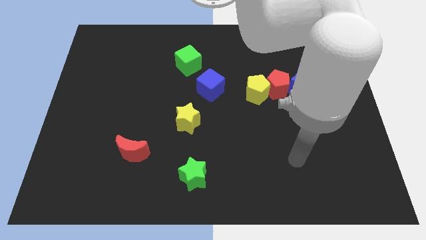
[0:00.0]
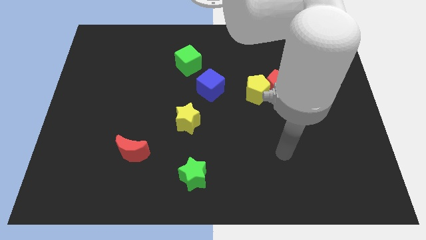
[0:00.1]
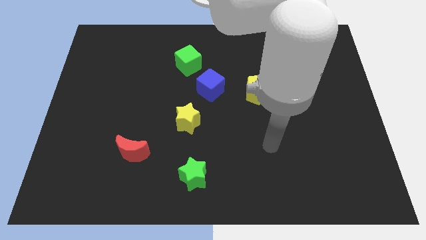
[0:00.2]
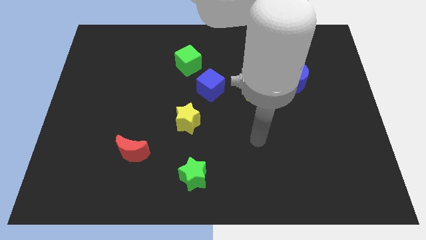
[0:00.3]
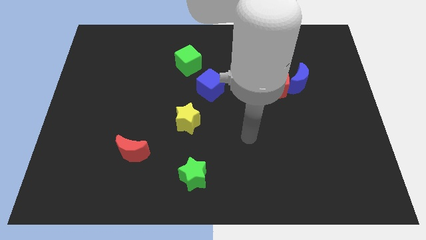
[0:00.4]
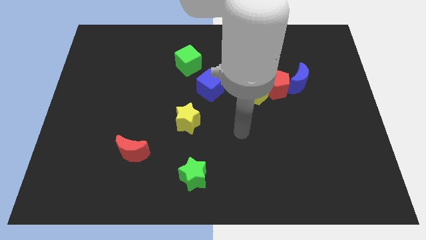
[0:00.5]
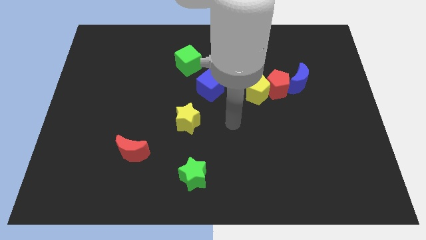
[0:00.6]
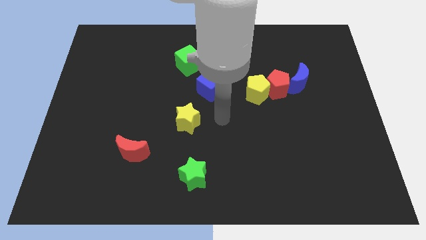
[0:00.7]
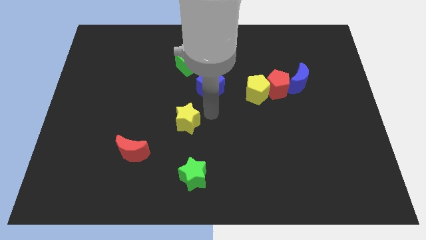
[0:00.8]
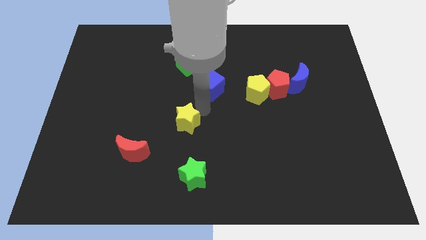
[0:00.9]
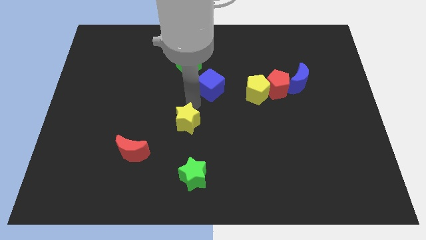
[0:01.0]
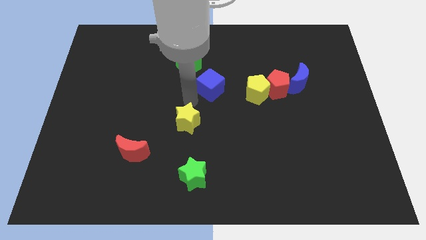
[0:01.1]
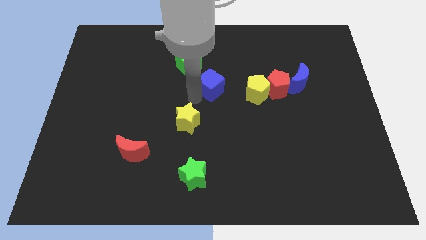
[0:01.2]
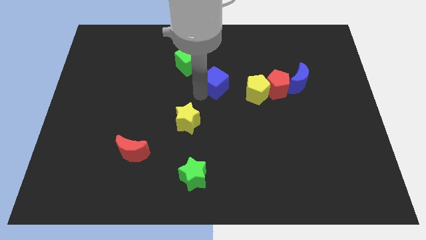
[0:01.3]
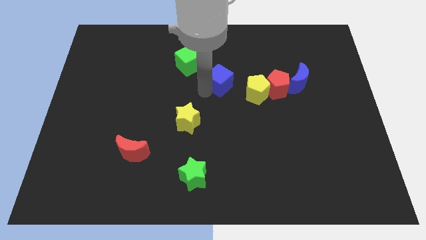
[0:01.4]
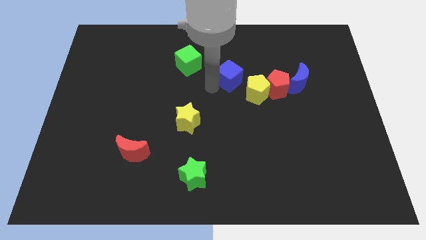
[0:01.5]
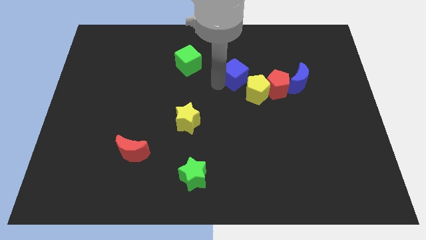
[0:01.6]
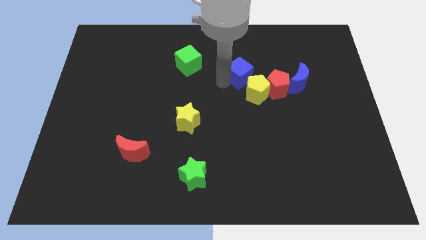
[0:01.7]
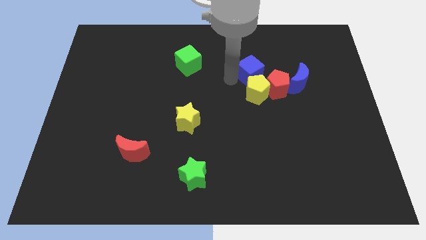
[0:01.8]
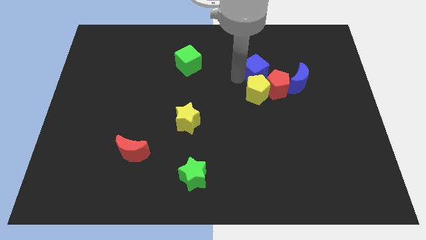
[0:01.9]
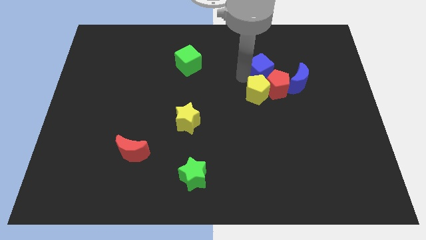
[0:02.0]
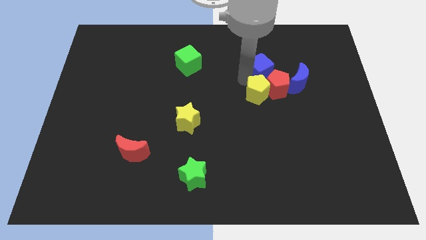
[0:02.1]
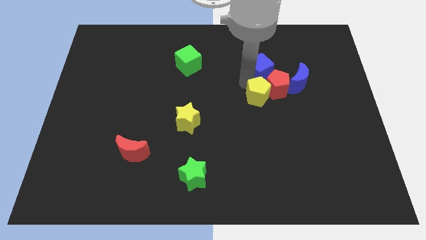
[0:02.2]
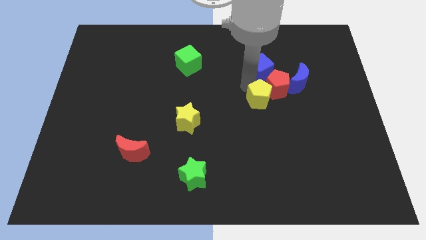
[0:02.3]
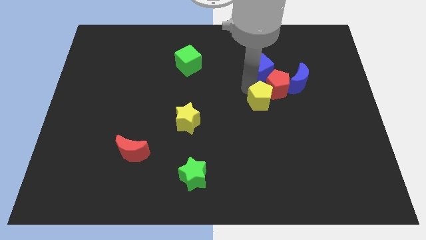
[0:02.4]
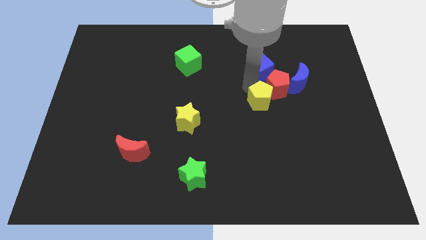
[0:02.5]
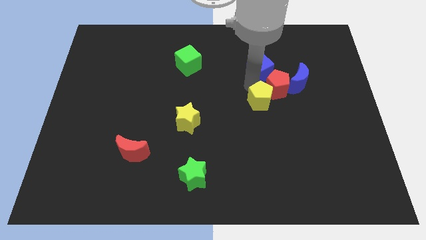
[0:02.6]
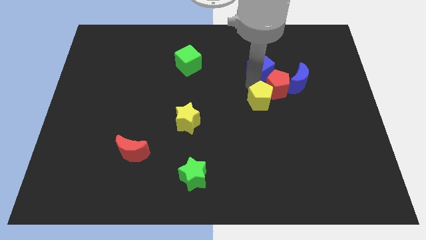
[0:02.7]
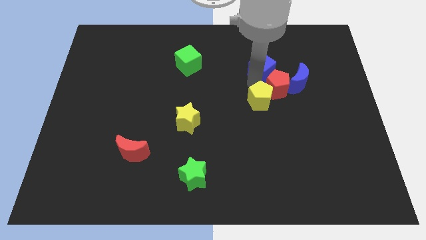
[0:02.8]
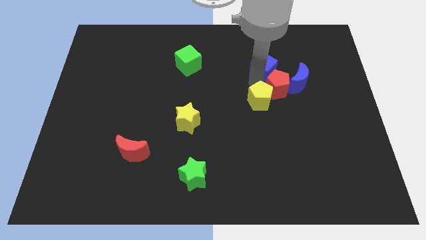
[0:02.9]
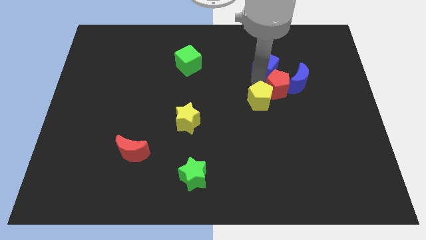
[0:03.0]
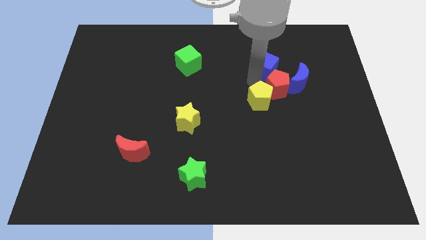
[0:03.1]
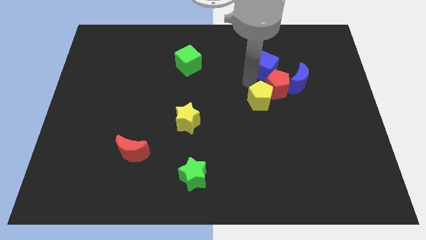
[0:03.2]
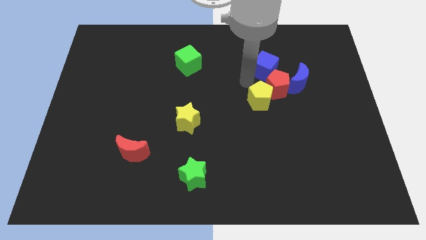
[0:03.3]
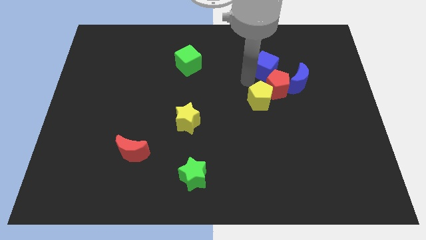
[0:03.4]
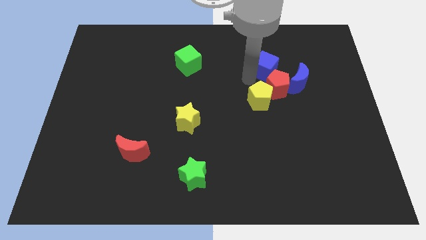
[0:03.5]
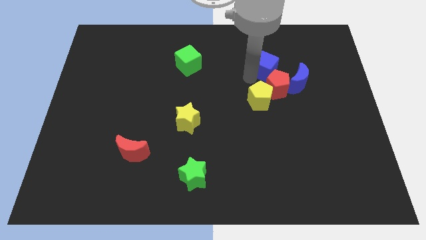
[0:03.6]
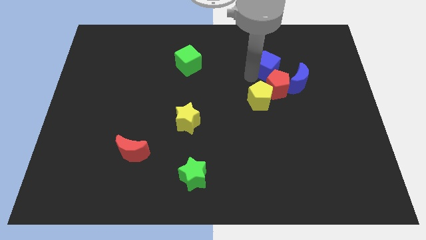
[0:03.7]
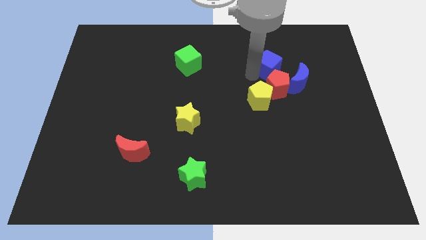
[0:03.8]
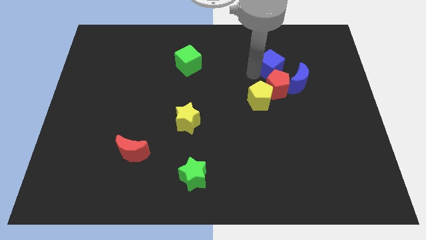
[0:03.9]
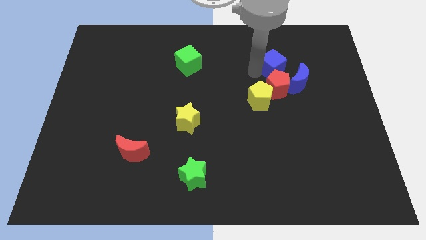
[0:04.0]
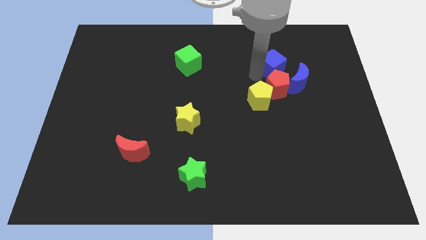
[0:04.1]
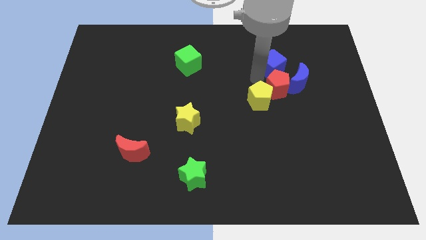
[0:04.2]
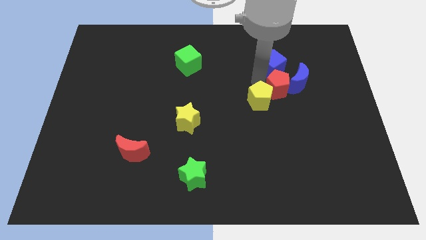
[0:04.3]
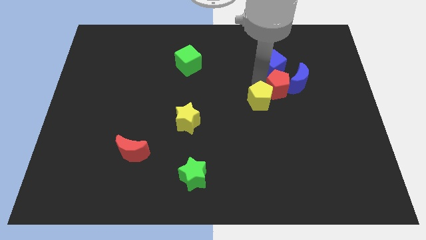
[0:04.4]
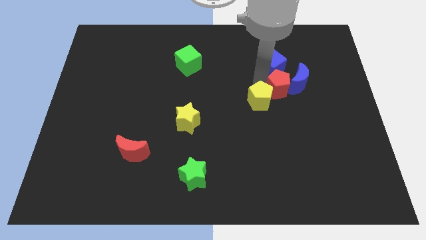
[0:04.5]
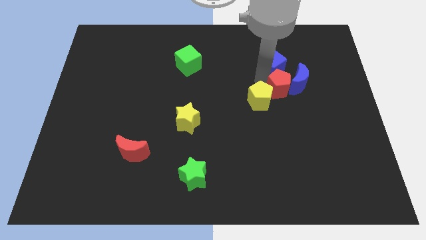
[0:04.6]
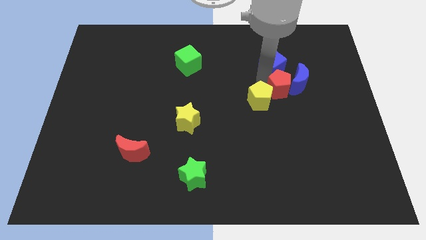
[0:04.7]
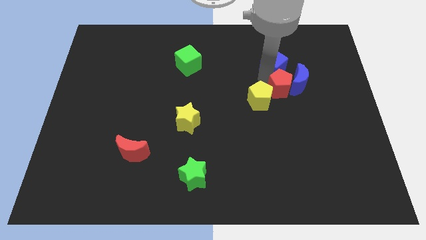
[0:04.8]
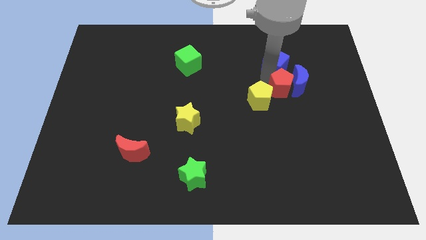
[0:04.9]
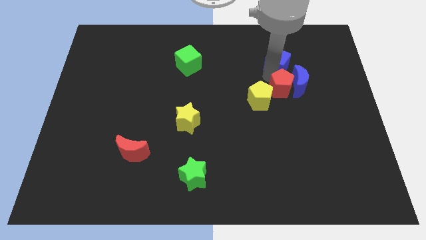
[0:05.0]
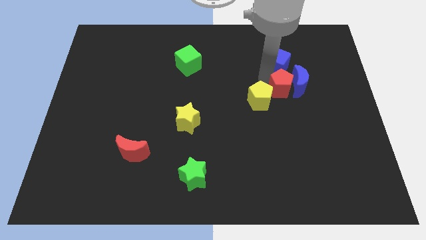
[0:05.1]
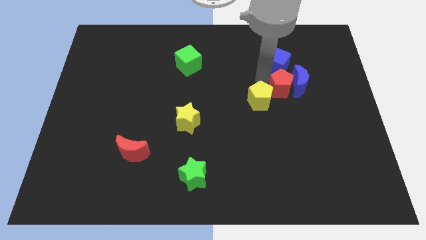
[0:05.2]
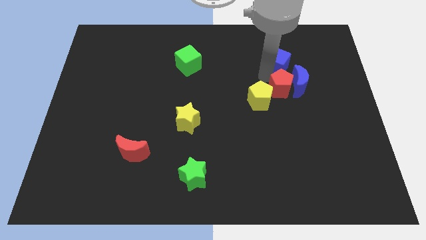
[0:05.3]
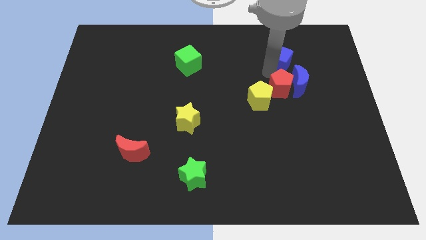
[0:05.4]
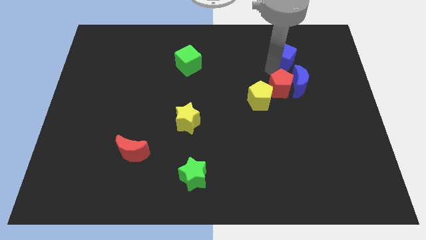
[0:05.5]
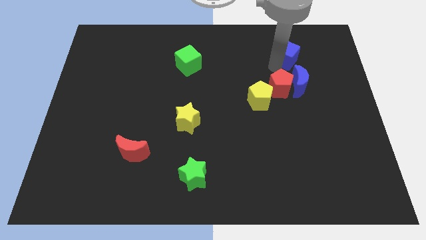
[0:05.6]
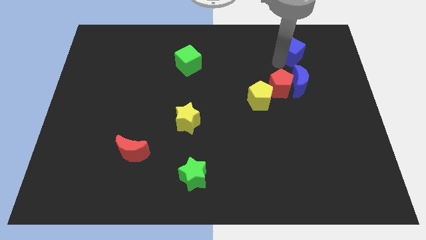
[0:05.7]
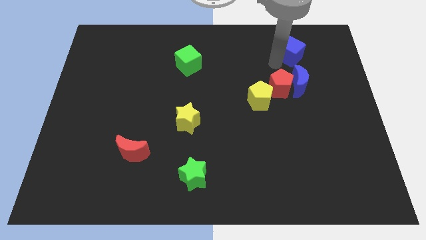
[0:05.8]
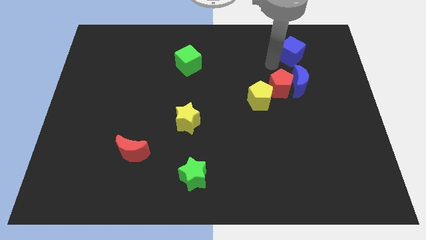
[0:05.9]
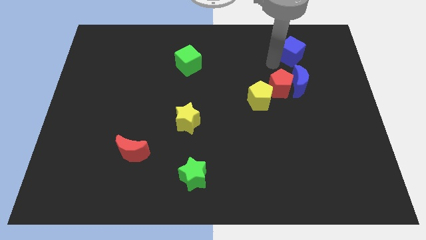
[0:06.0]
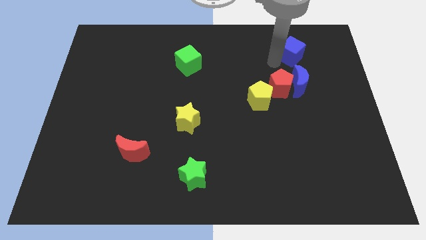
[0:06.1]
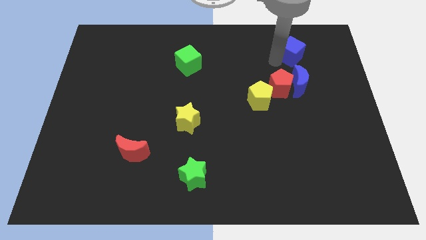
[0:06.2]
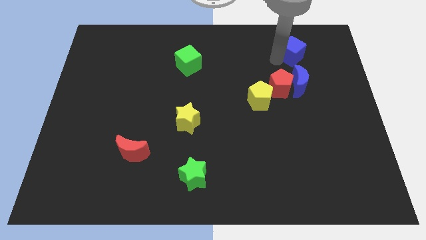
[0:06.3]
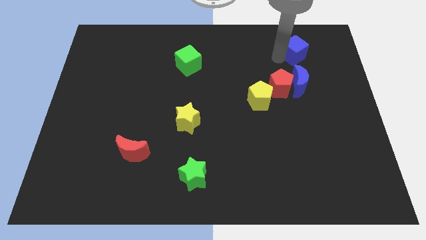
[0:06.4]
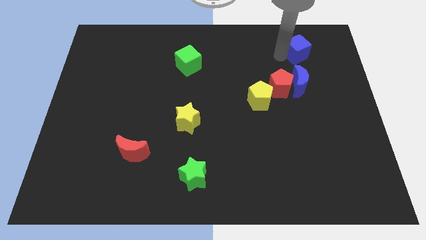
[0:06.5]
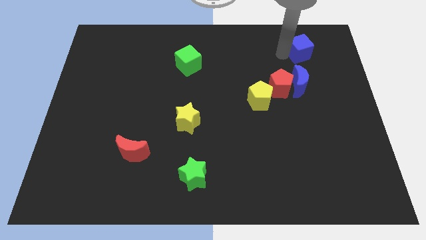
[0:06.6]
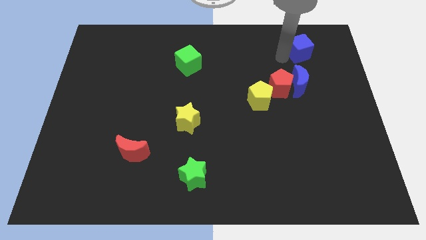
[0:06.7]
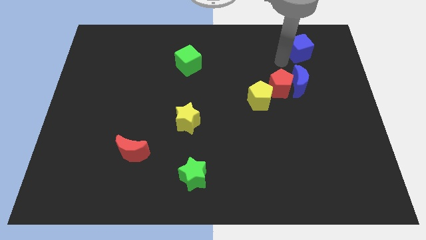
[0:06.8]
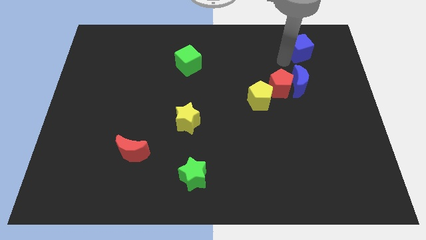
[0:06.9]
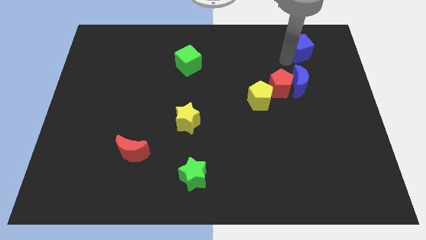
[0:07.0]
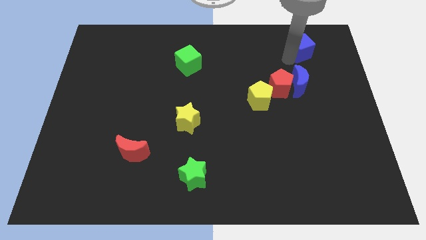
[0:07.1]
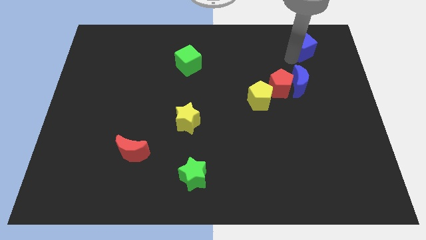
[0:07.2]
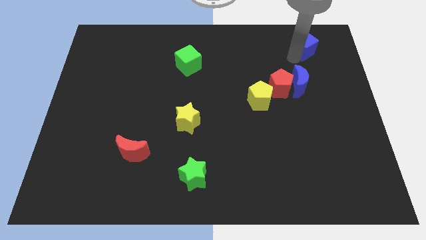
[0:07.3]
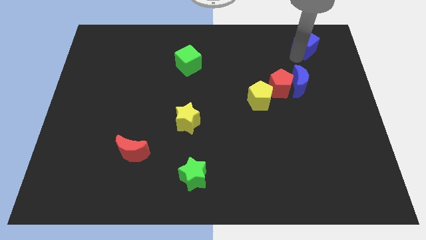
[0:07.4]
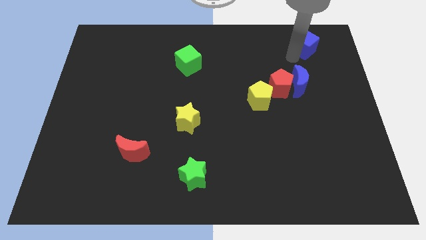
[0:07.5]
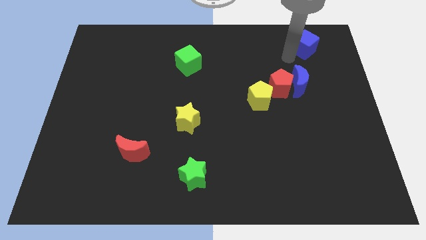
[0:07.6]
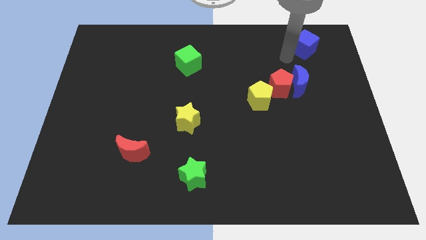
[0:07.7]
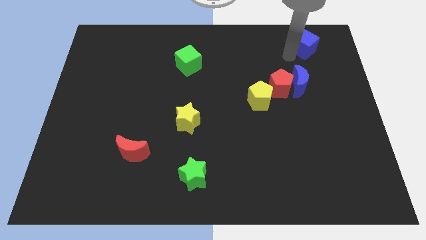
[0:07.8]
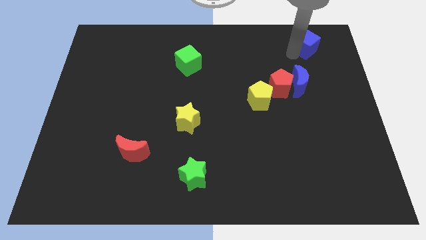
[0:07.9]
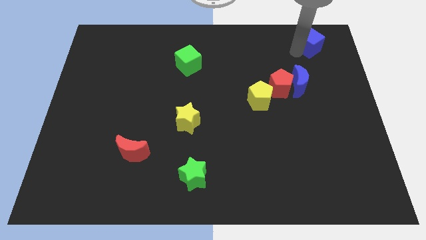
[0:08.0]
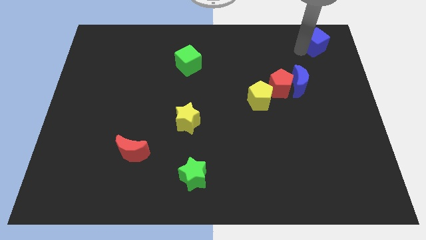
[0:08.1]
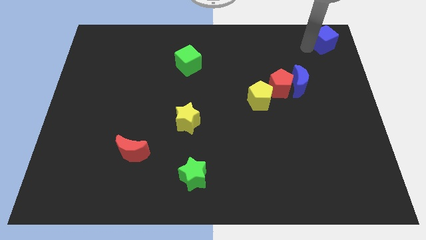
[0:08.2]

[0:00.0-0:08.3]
slide the blue cube to the top right
